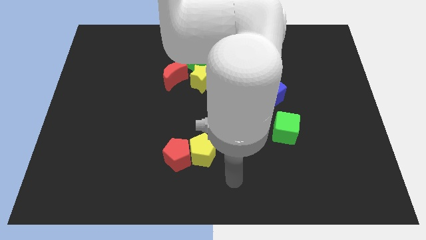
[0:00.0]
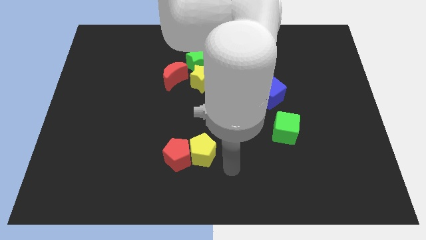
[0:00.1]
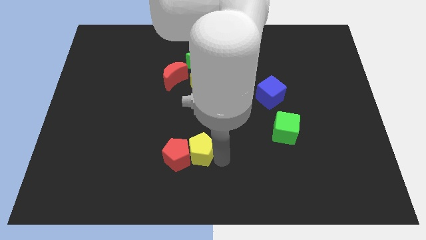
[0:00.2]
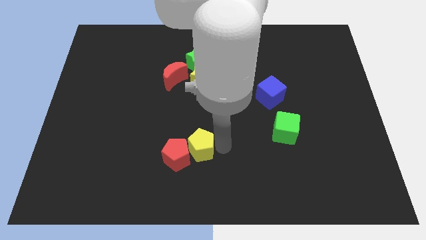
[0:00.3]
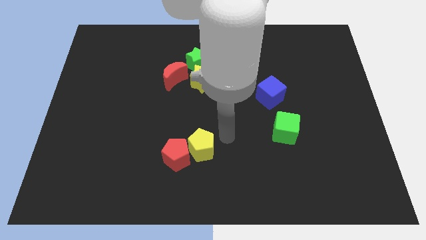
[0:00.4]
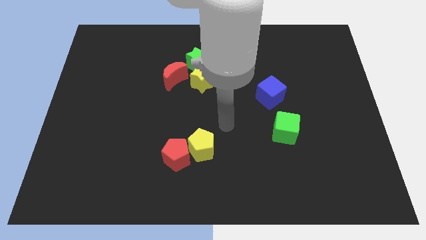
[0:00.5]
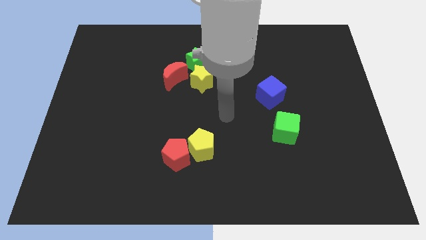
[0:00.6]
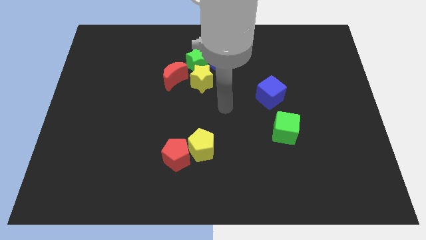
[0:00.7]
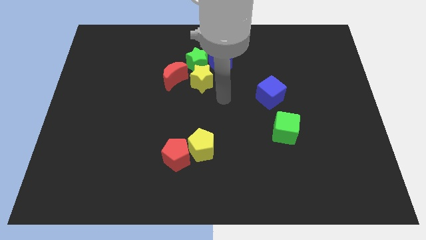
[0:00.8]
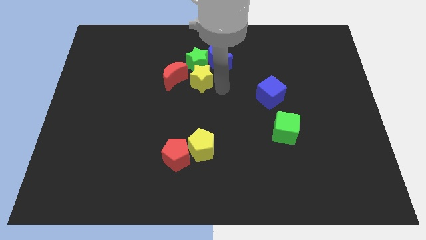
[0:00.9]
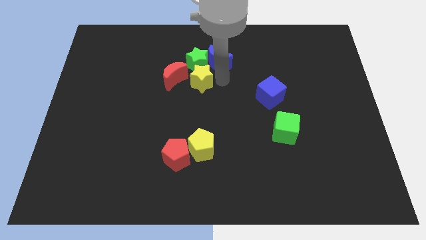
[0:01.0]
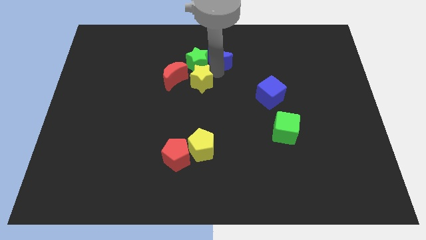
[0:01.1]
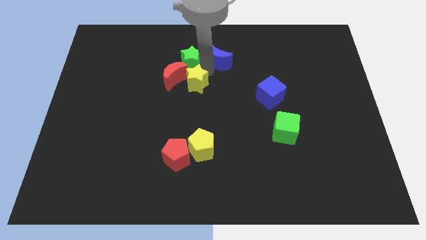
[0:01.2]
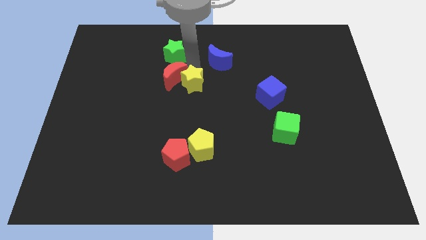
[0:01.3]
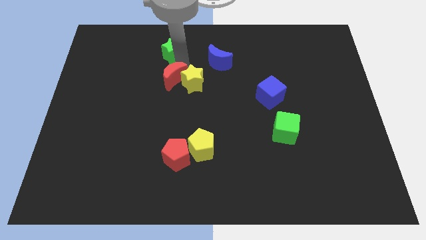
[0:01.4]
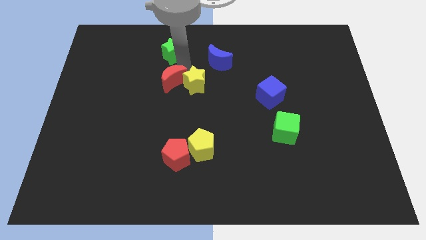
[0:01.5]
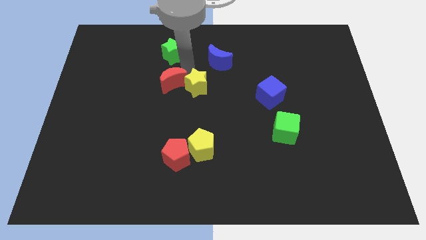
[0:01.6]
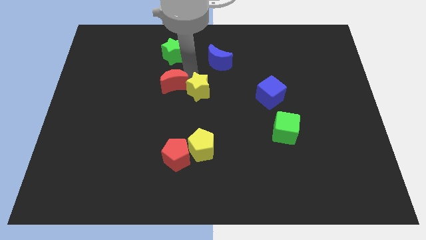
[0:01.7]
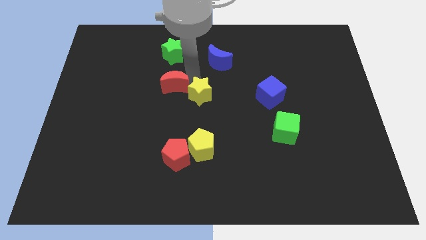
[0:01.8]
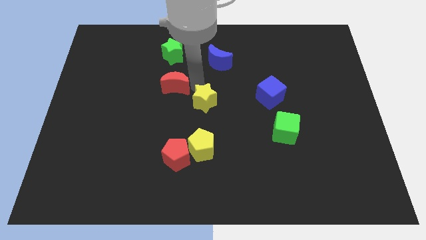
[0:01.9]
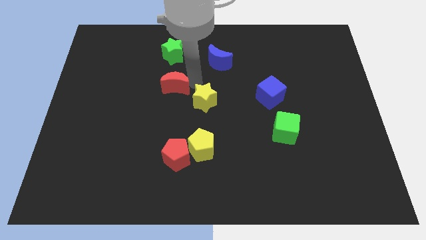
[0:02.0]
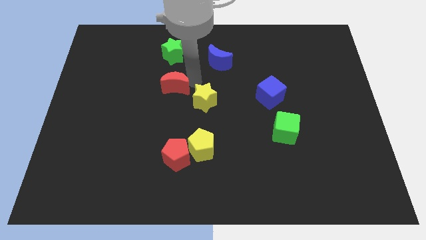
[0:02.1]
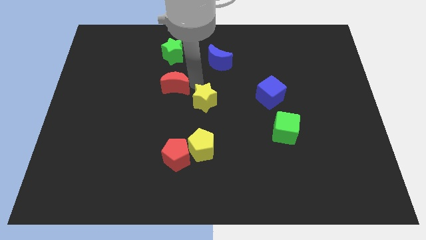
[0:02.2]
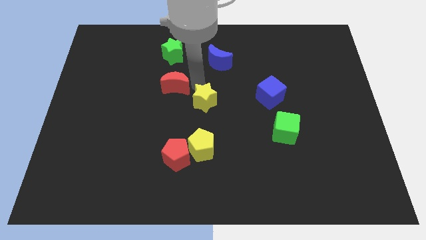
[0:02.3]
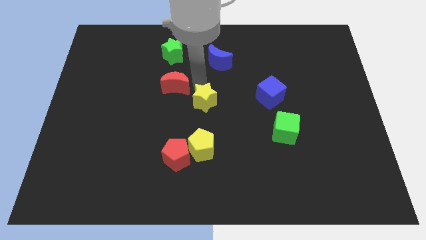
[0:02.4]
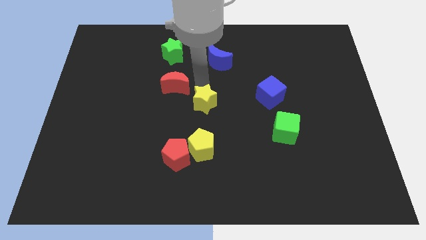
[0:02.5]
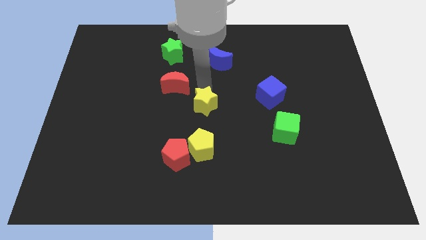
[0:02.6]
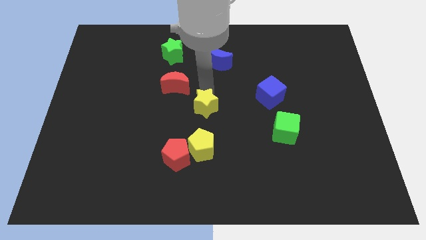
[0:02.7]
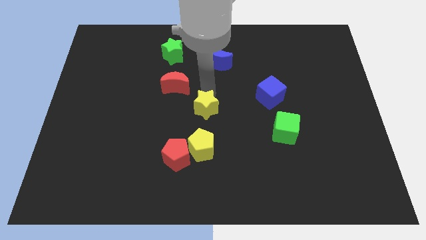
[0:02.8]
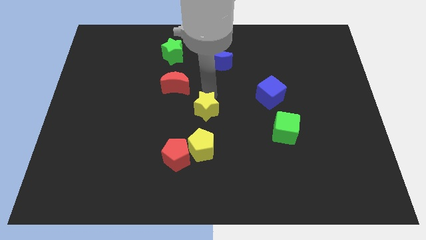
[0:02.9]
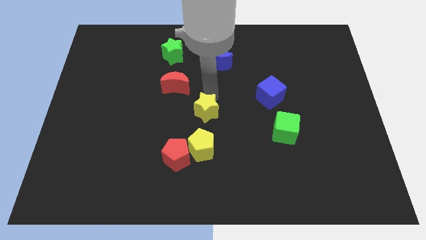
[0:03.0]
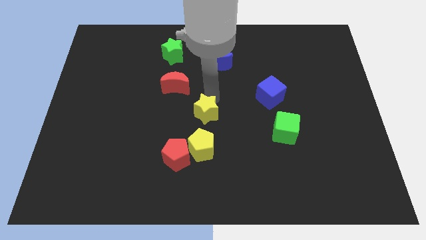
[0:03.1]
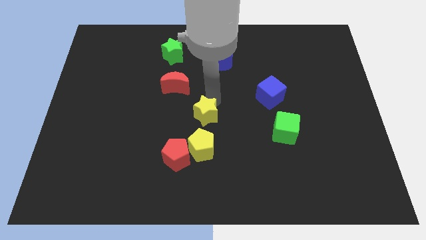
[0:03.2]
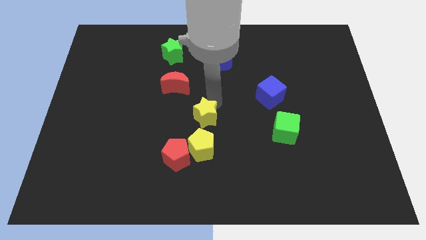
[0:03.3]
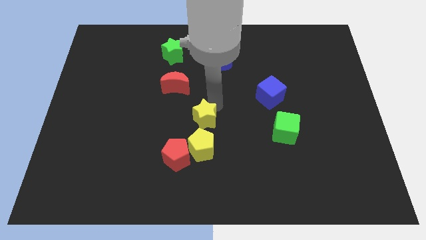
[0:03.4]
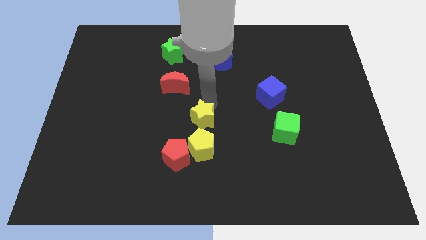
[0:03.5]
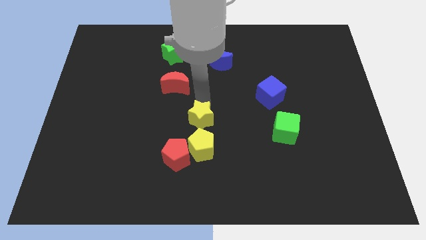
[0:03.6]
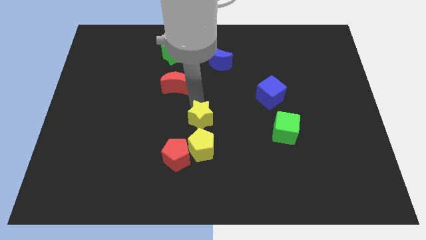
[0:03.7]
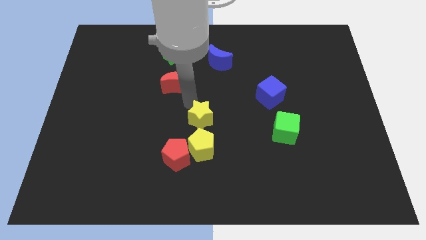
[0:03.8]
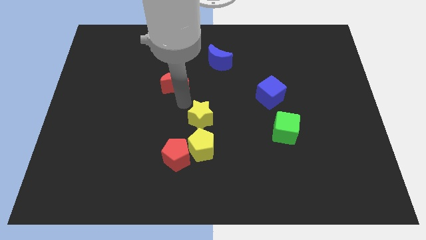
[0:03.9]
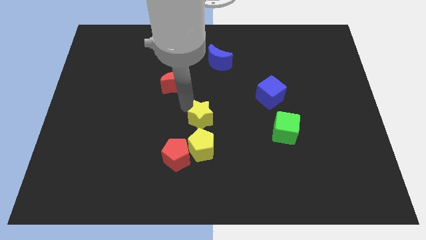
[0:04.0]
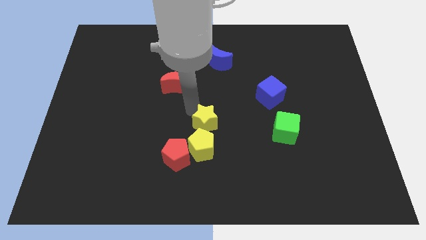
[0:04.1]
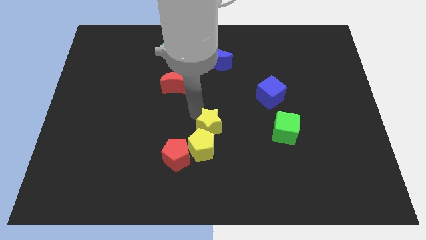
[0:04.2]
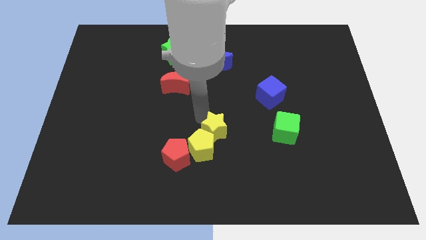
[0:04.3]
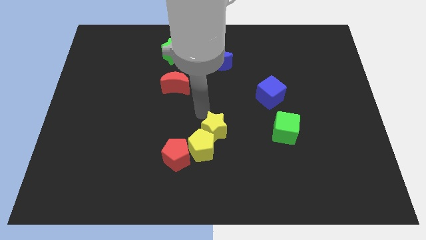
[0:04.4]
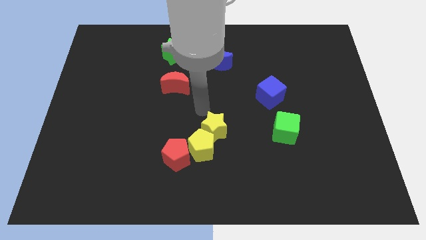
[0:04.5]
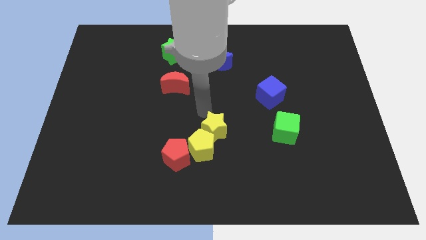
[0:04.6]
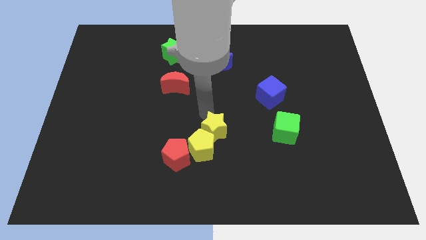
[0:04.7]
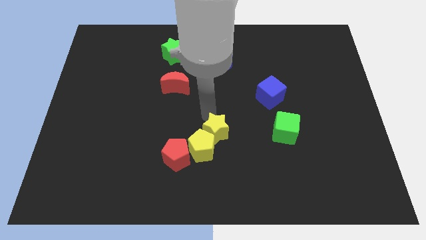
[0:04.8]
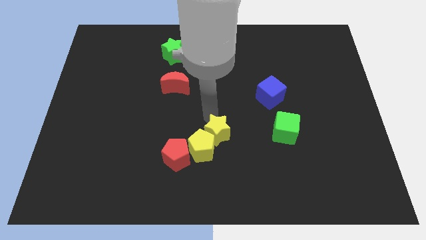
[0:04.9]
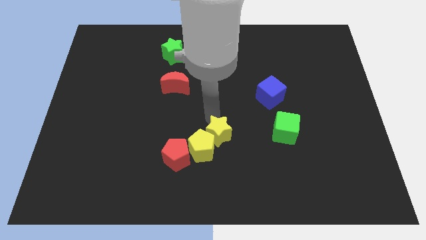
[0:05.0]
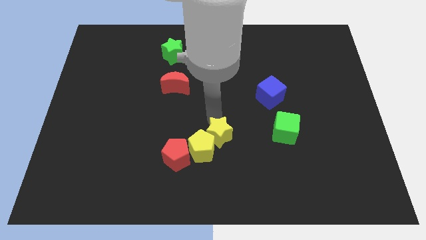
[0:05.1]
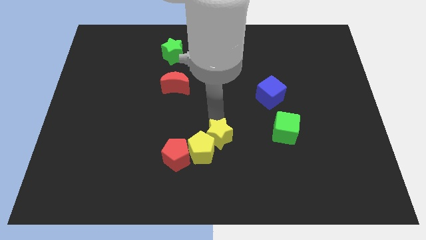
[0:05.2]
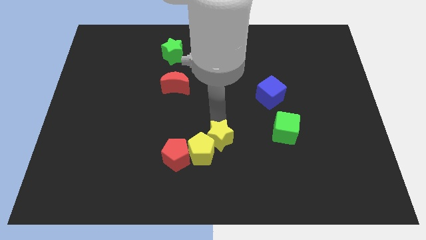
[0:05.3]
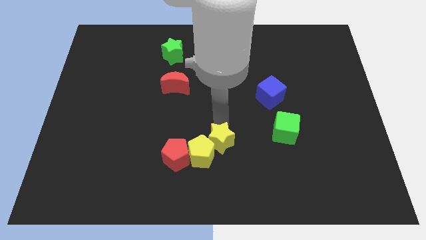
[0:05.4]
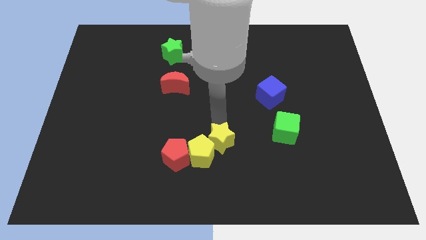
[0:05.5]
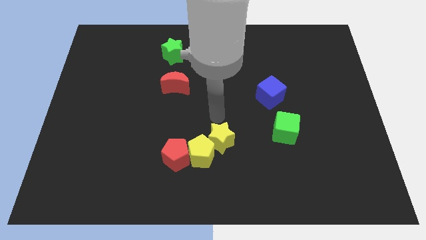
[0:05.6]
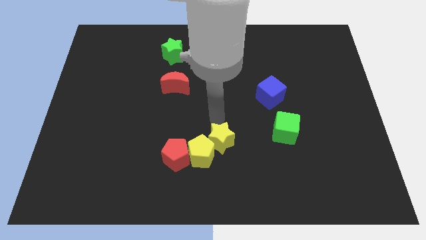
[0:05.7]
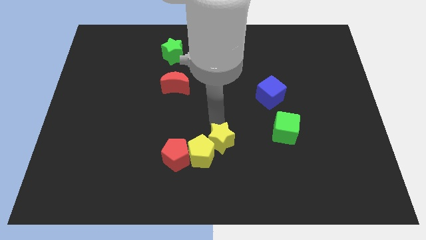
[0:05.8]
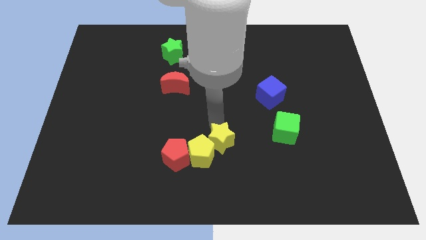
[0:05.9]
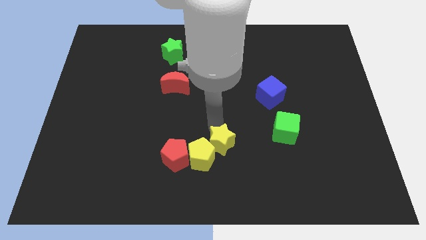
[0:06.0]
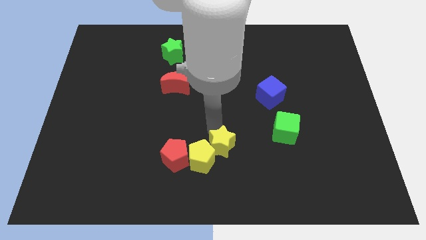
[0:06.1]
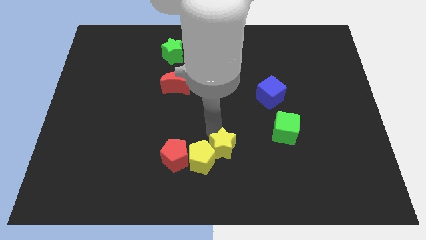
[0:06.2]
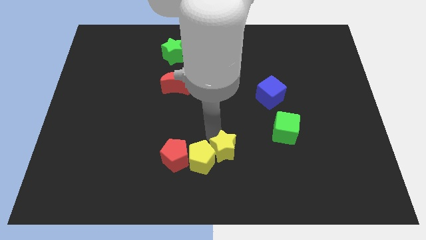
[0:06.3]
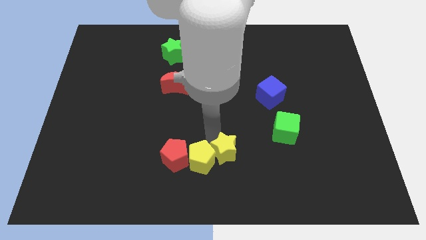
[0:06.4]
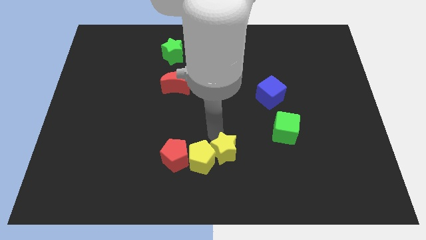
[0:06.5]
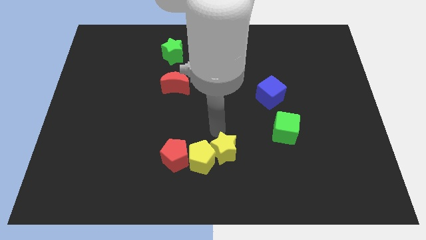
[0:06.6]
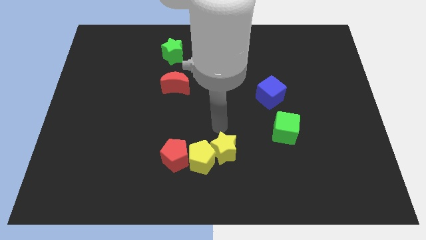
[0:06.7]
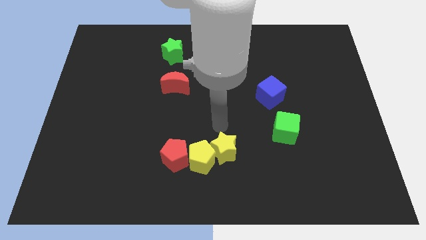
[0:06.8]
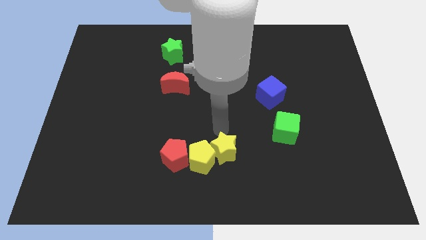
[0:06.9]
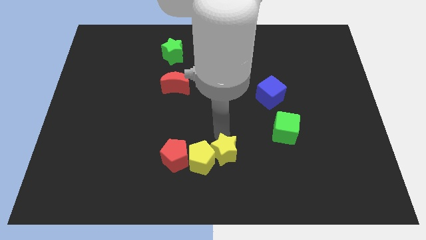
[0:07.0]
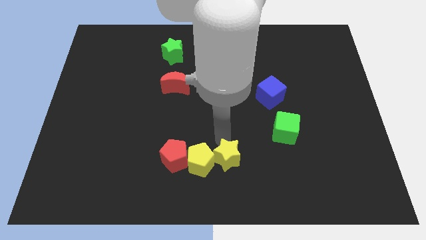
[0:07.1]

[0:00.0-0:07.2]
put the yellow star to the bottom
